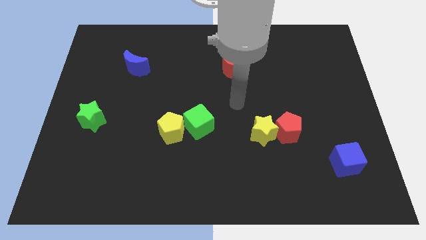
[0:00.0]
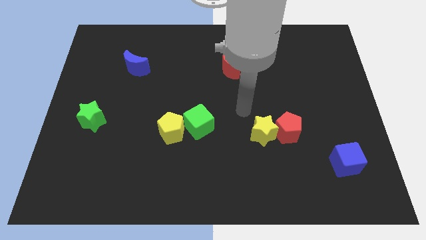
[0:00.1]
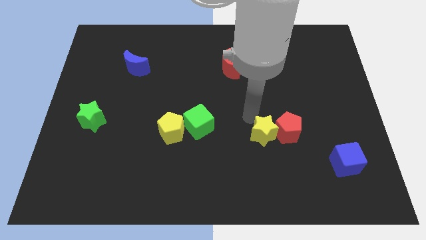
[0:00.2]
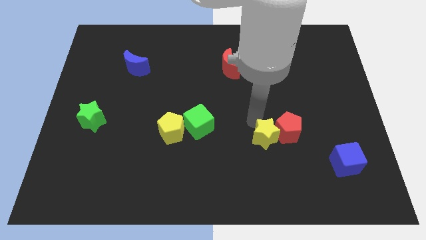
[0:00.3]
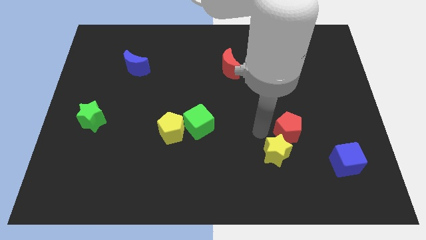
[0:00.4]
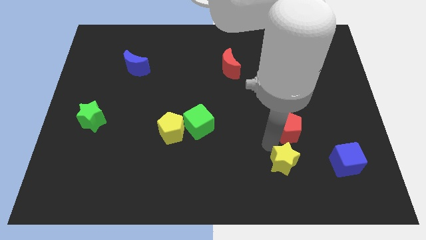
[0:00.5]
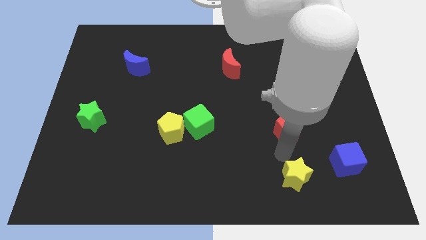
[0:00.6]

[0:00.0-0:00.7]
separate the red pentagon from the yellow star

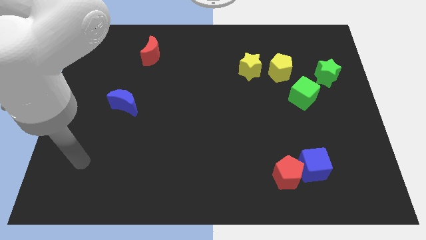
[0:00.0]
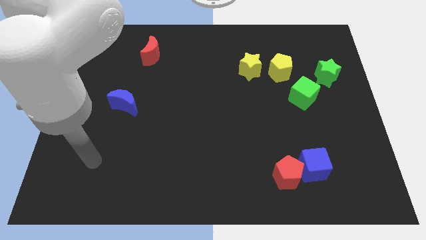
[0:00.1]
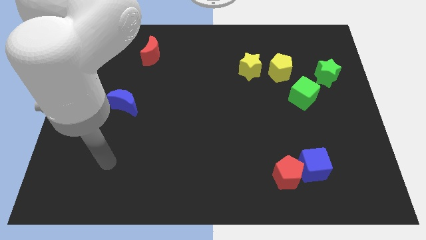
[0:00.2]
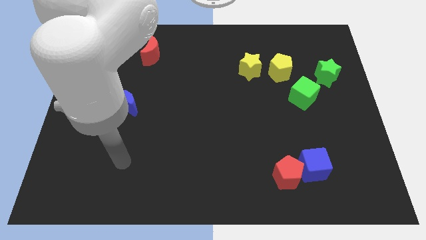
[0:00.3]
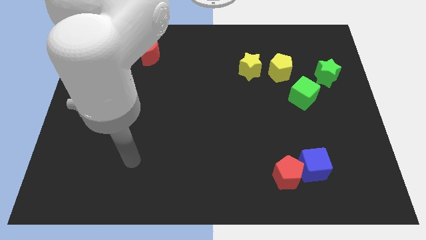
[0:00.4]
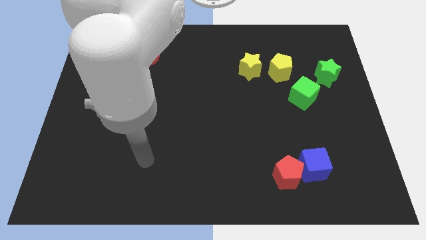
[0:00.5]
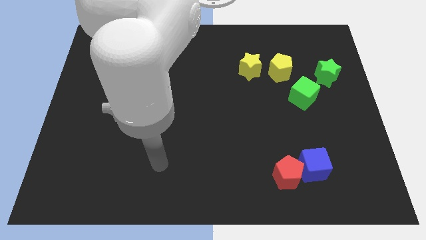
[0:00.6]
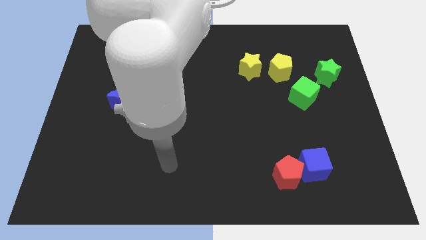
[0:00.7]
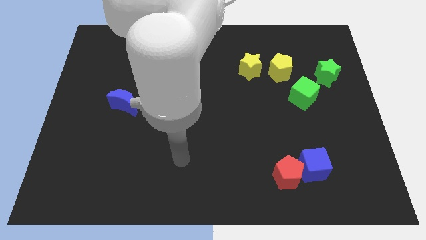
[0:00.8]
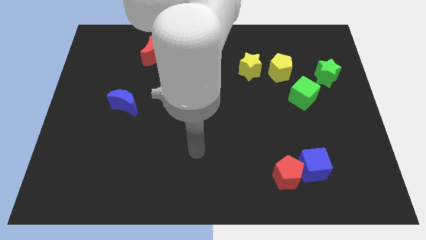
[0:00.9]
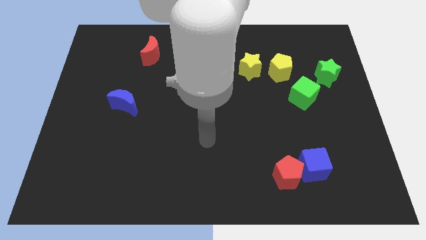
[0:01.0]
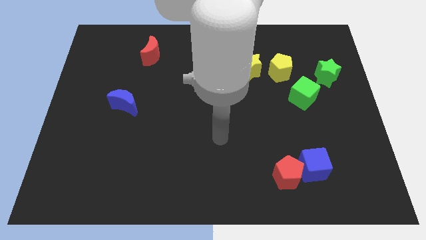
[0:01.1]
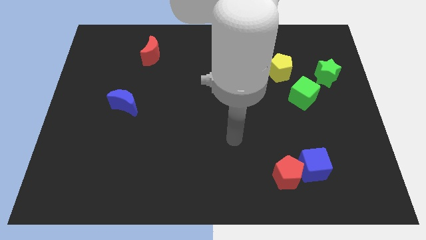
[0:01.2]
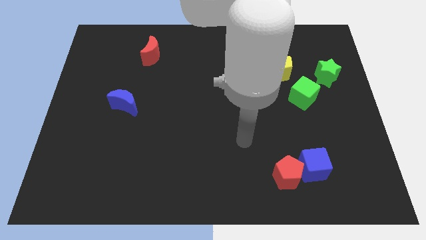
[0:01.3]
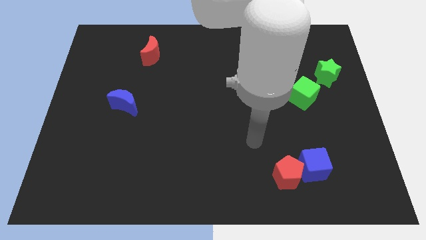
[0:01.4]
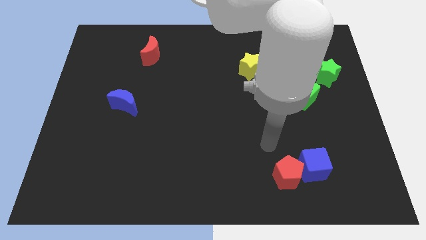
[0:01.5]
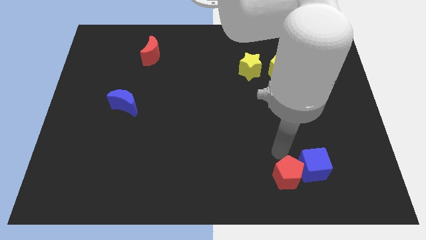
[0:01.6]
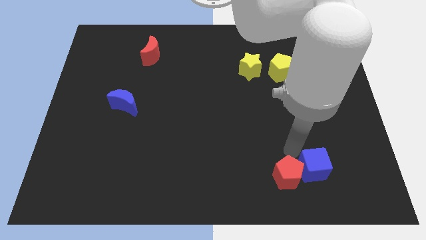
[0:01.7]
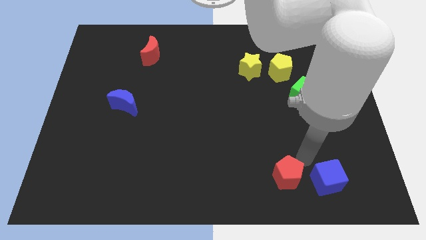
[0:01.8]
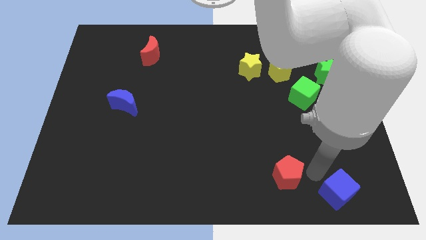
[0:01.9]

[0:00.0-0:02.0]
move the red pentagon away from the blue cube

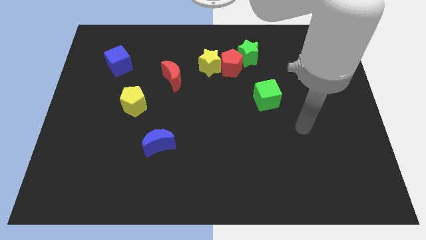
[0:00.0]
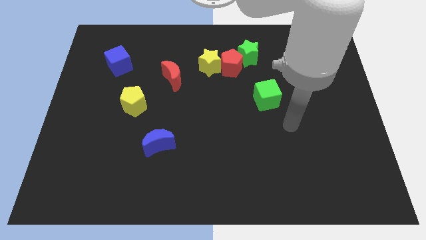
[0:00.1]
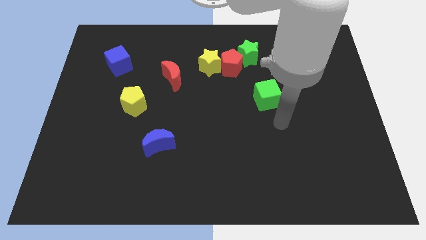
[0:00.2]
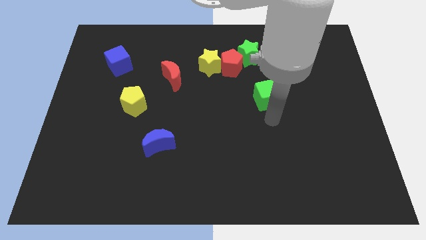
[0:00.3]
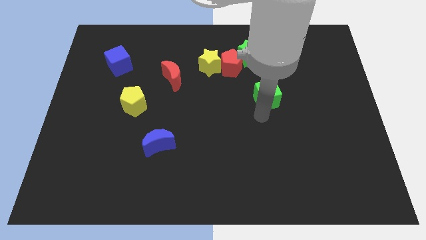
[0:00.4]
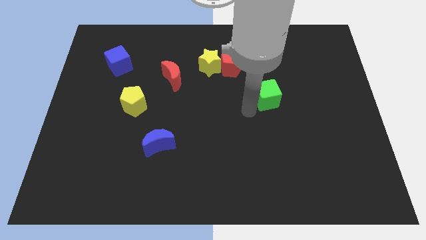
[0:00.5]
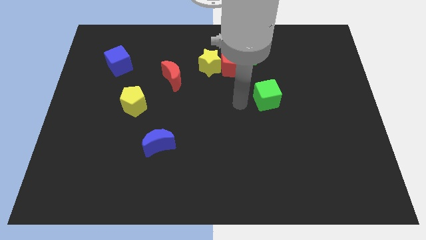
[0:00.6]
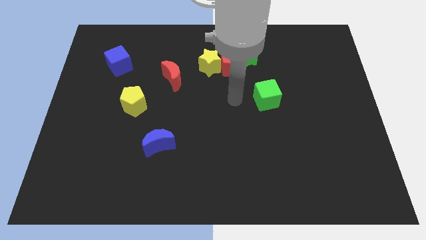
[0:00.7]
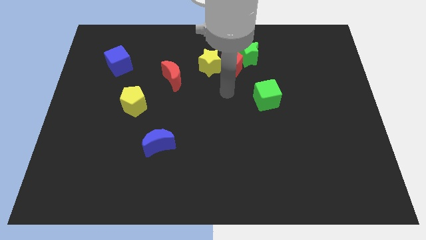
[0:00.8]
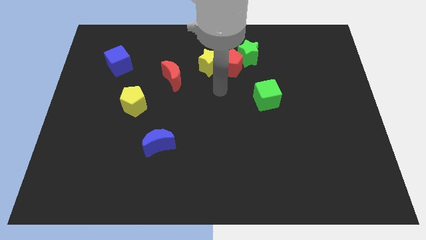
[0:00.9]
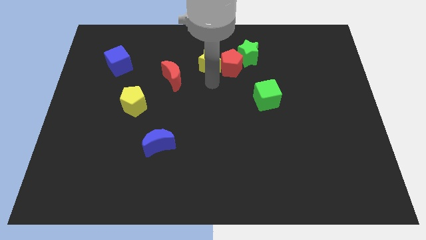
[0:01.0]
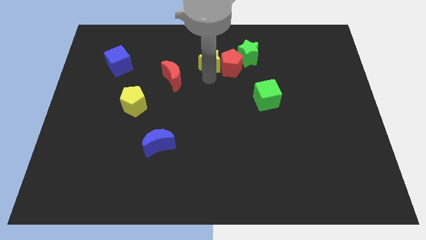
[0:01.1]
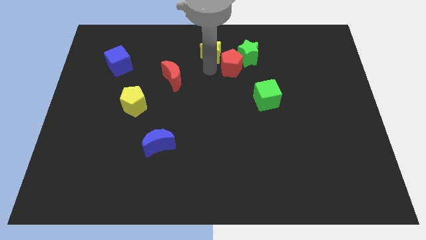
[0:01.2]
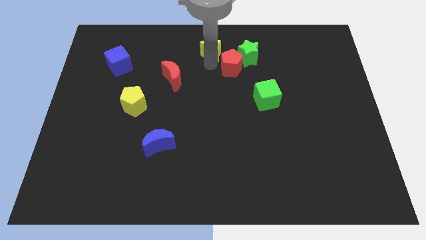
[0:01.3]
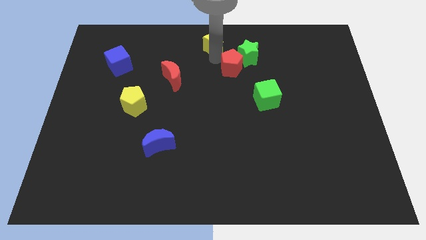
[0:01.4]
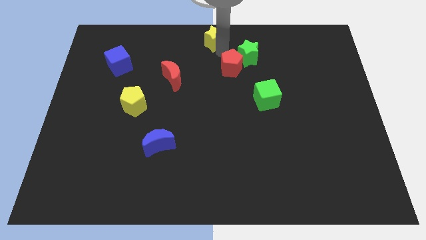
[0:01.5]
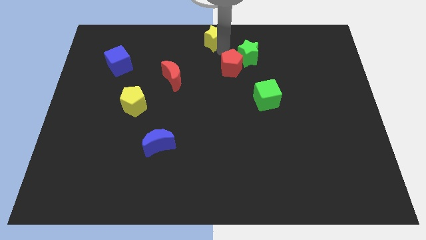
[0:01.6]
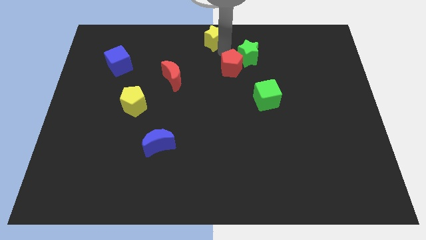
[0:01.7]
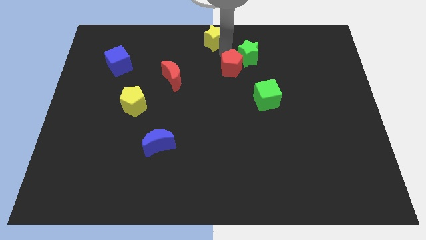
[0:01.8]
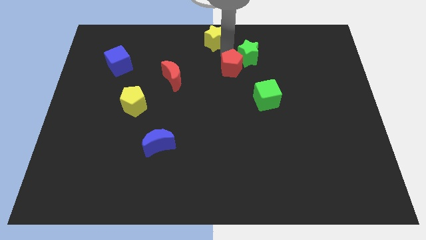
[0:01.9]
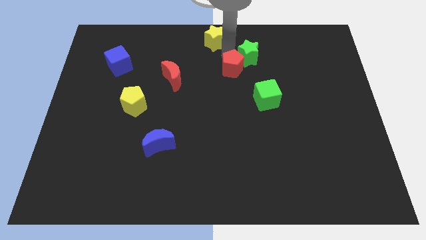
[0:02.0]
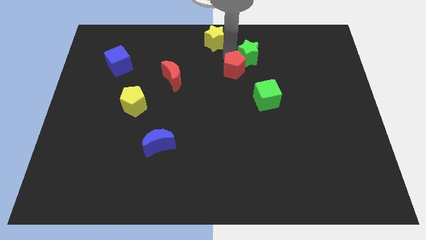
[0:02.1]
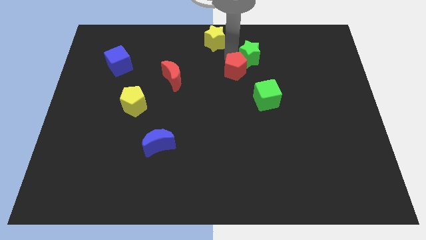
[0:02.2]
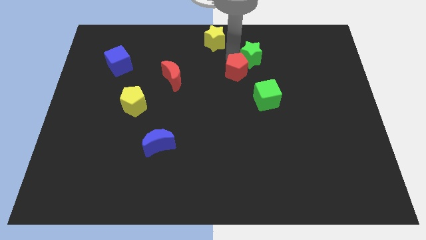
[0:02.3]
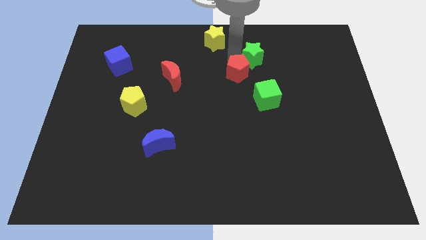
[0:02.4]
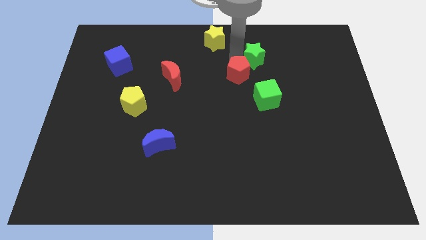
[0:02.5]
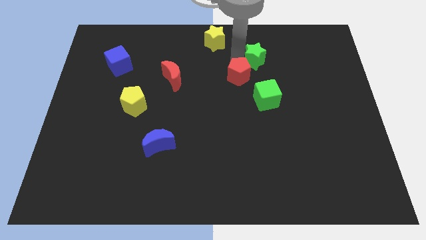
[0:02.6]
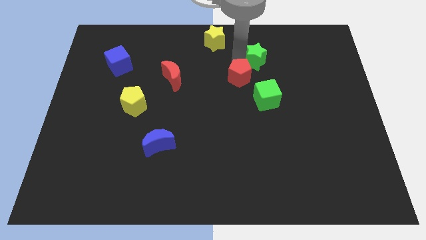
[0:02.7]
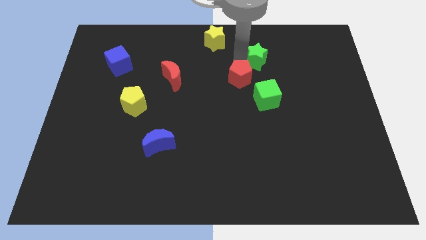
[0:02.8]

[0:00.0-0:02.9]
separate the red pentagon from the yellow star and green star

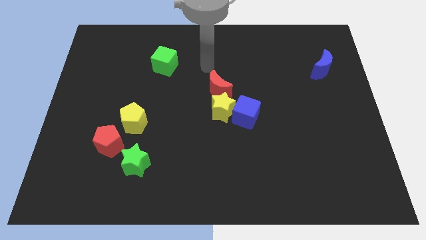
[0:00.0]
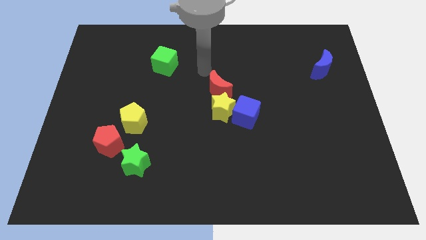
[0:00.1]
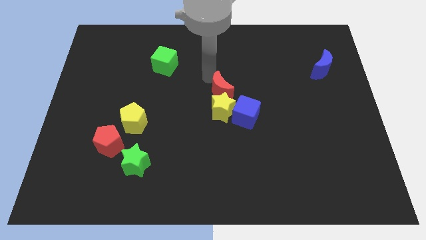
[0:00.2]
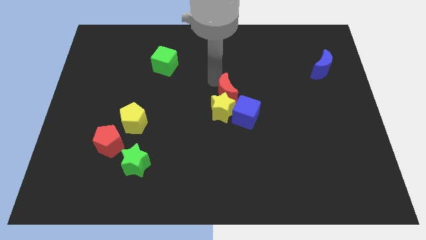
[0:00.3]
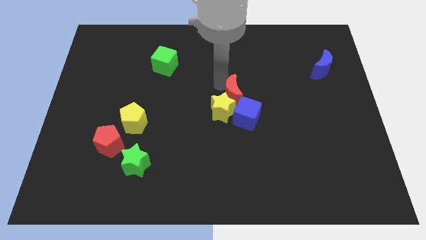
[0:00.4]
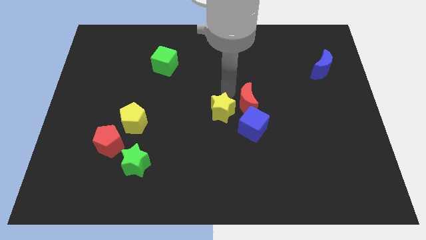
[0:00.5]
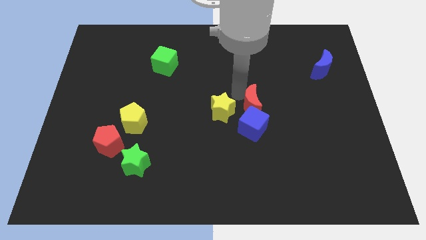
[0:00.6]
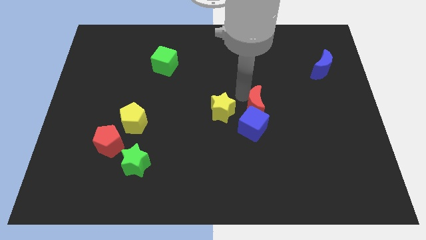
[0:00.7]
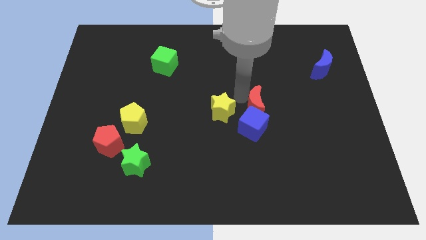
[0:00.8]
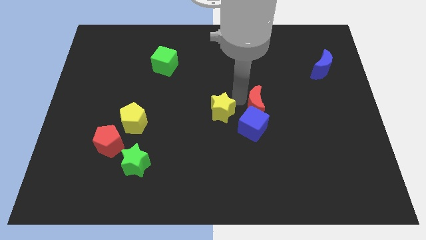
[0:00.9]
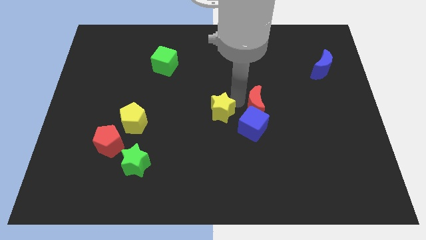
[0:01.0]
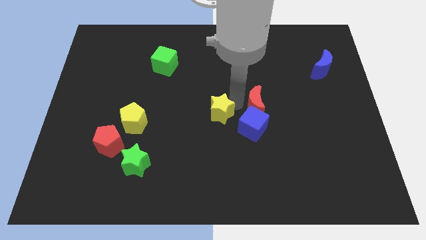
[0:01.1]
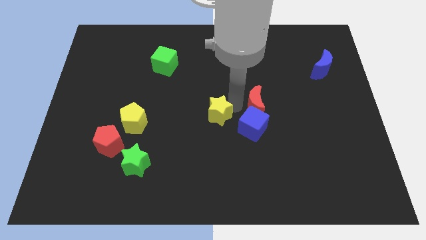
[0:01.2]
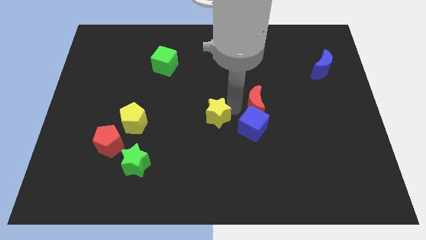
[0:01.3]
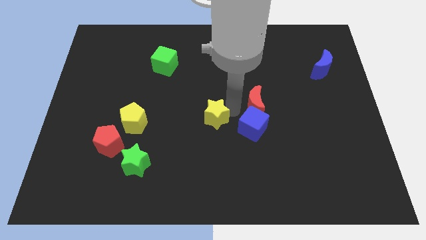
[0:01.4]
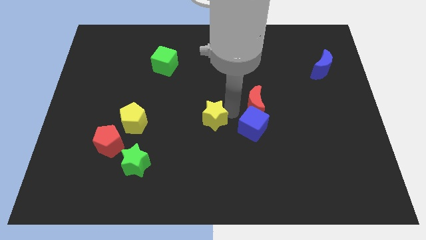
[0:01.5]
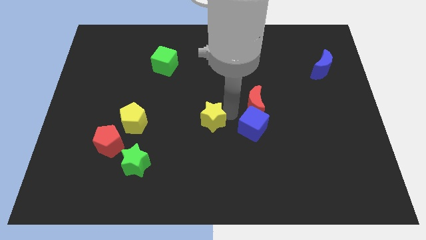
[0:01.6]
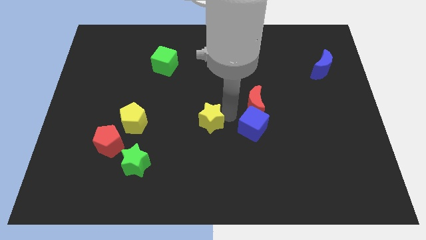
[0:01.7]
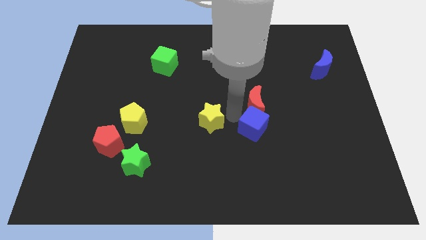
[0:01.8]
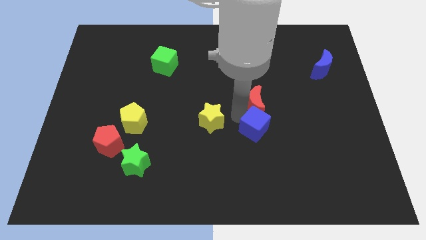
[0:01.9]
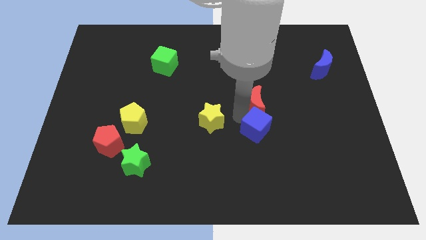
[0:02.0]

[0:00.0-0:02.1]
pull the yellow star apart from the blue cube and red moon

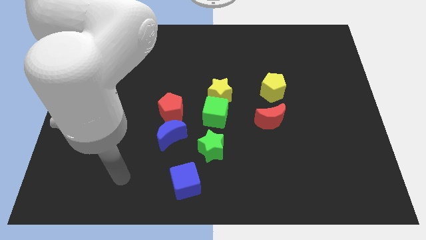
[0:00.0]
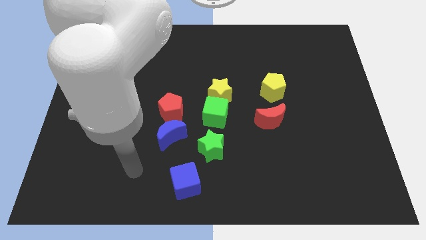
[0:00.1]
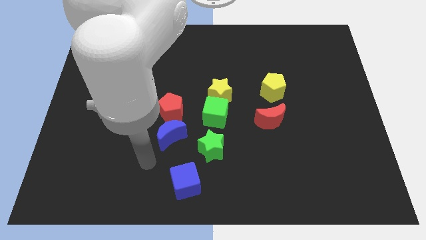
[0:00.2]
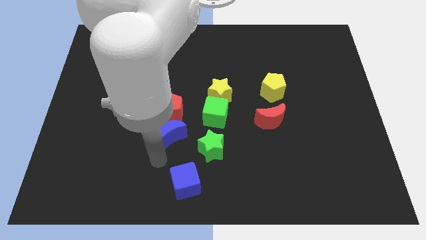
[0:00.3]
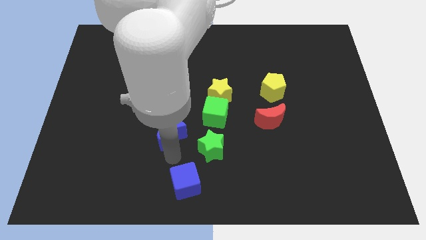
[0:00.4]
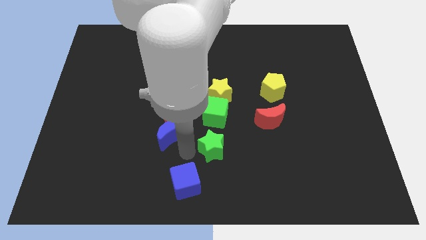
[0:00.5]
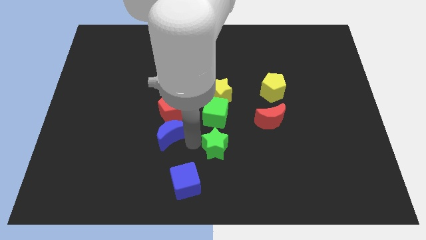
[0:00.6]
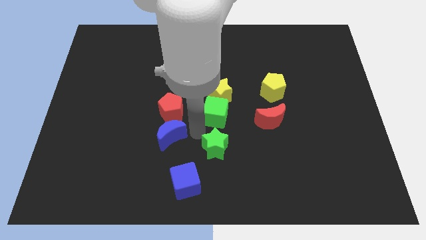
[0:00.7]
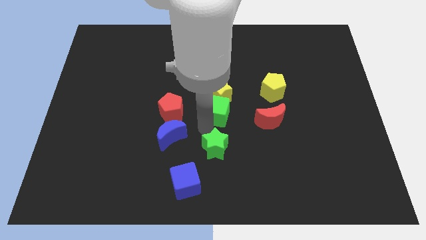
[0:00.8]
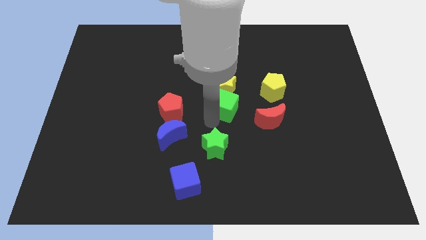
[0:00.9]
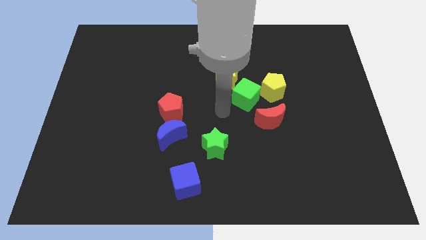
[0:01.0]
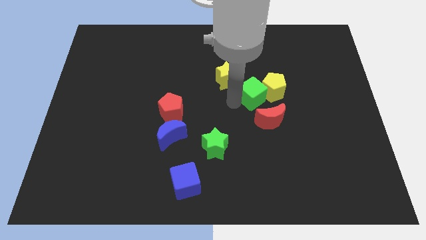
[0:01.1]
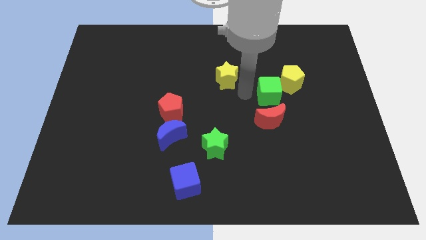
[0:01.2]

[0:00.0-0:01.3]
pull the yellow star apart from the green cube

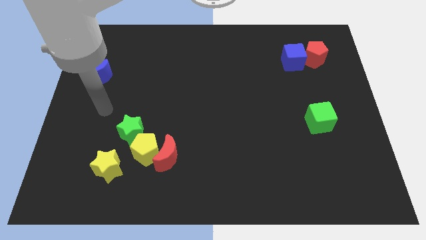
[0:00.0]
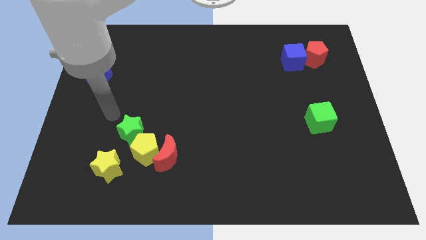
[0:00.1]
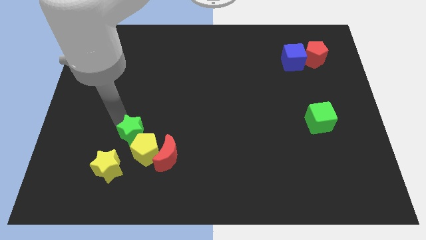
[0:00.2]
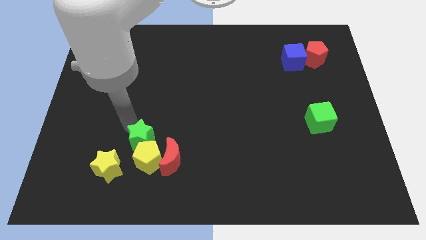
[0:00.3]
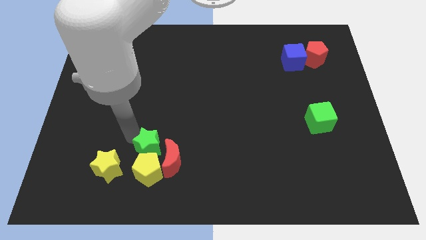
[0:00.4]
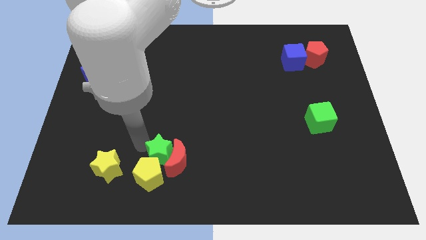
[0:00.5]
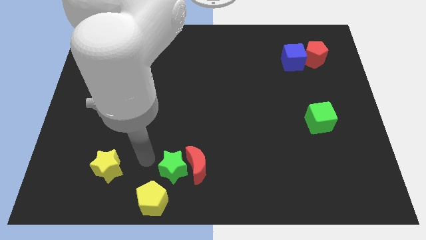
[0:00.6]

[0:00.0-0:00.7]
move the red moon away from the yellow pentagon
